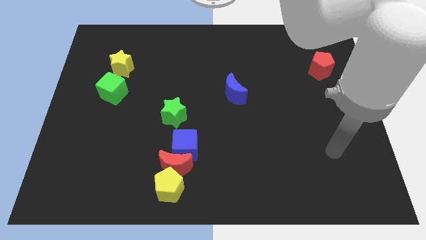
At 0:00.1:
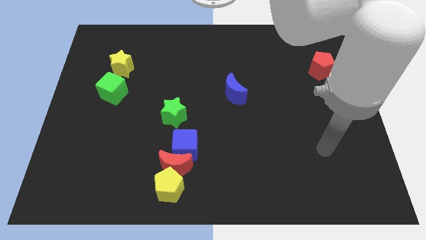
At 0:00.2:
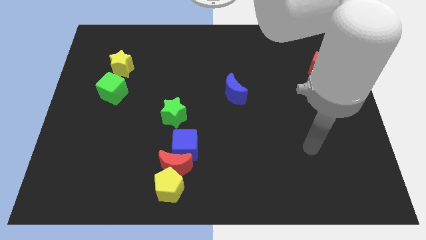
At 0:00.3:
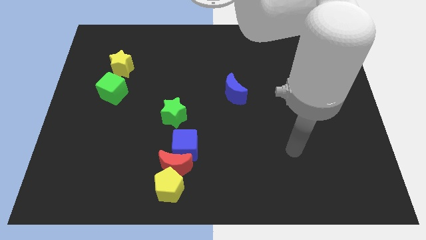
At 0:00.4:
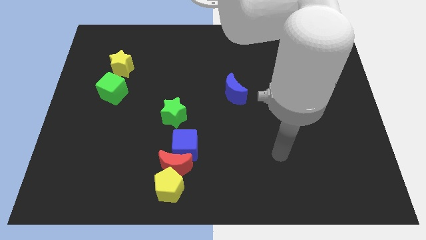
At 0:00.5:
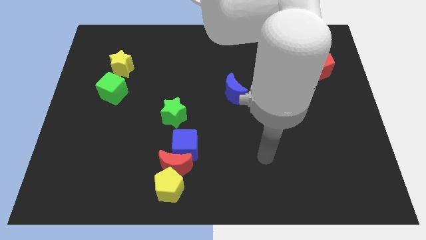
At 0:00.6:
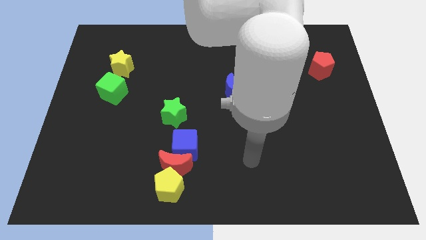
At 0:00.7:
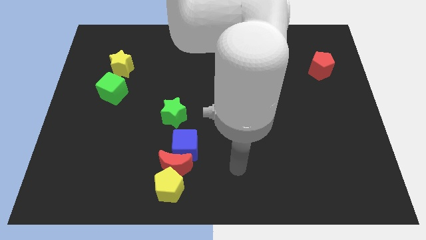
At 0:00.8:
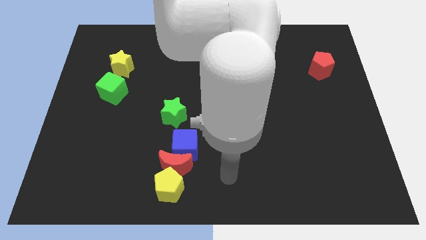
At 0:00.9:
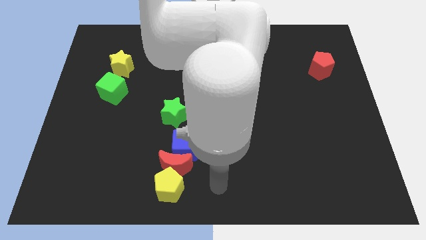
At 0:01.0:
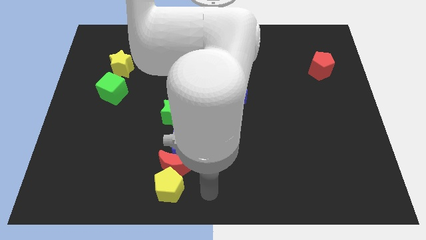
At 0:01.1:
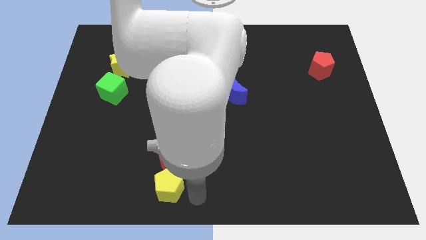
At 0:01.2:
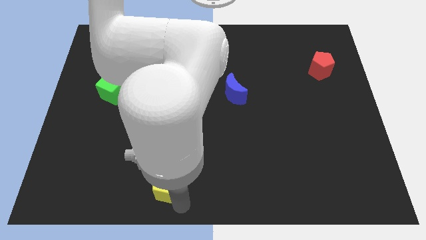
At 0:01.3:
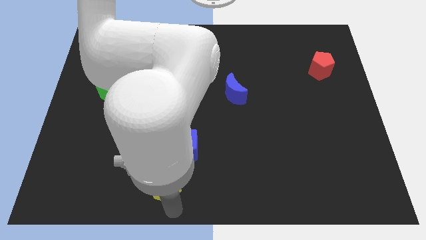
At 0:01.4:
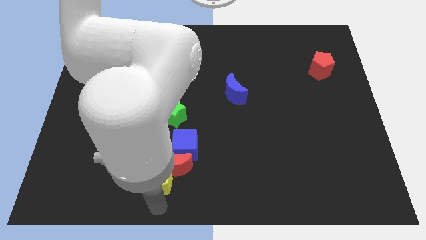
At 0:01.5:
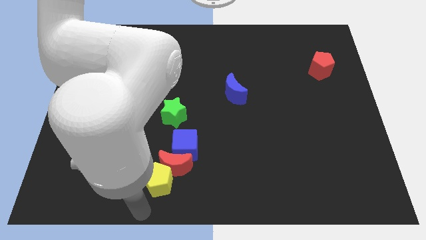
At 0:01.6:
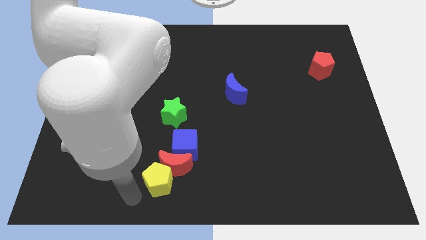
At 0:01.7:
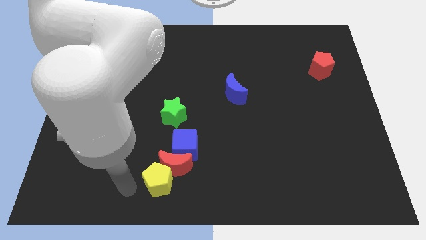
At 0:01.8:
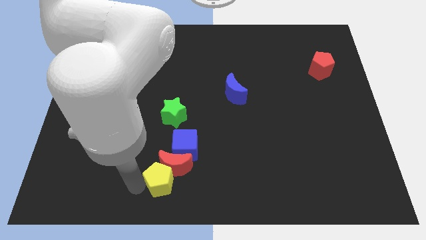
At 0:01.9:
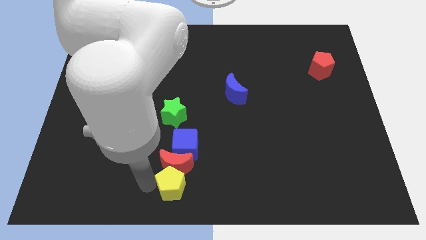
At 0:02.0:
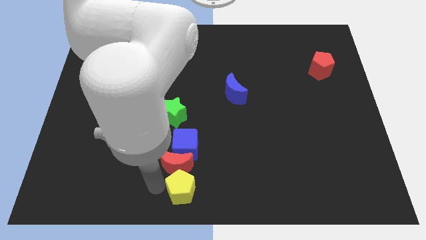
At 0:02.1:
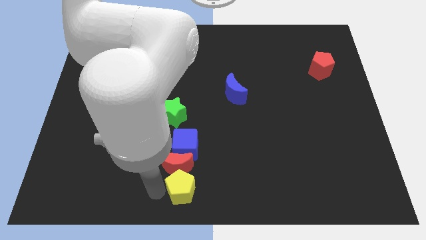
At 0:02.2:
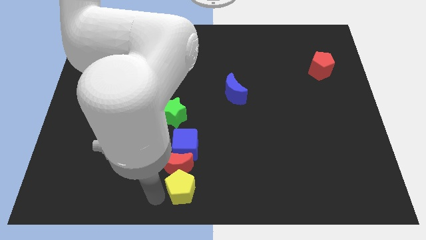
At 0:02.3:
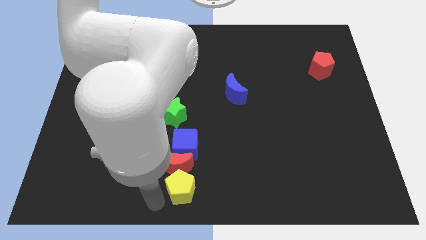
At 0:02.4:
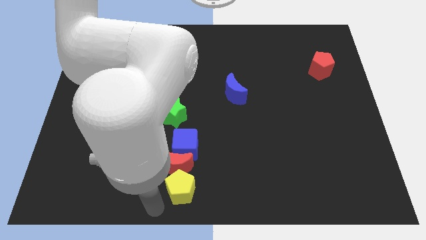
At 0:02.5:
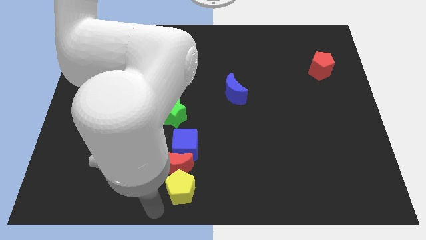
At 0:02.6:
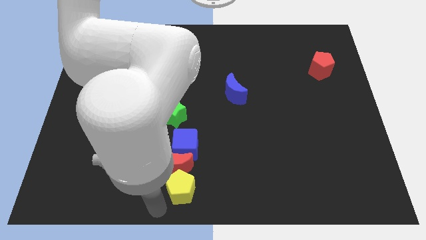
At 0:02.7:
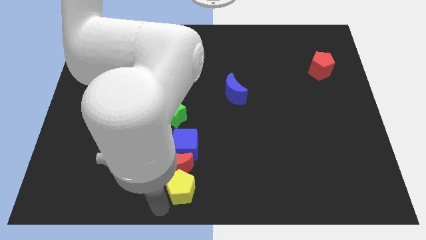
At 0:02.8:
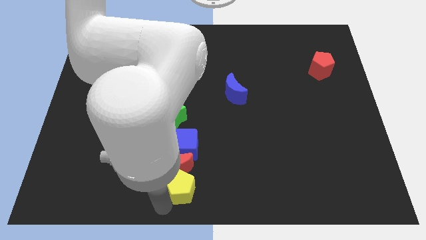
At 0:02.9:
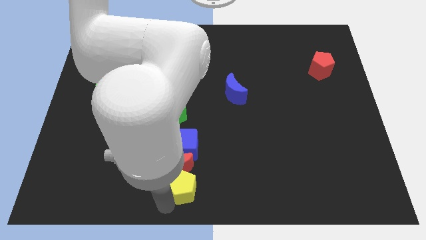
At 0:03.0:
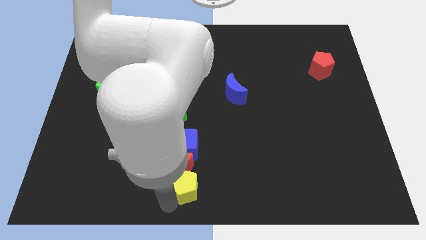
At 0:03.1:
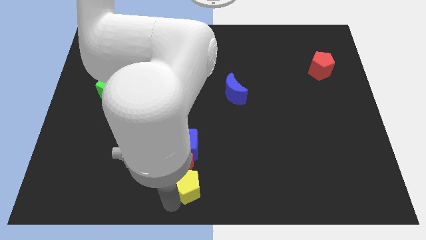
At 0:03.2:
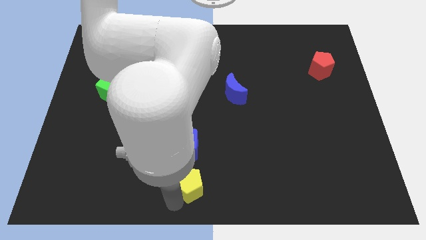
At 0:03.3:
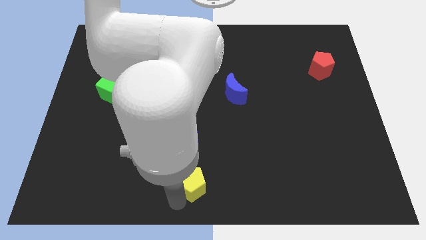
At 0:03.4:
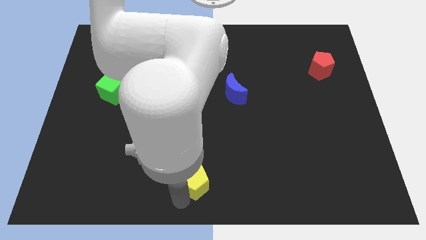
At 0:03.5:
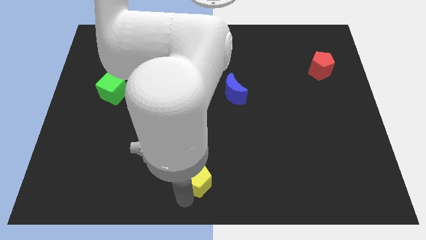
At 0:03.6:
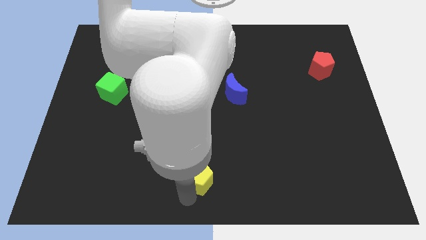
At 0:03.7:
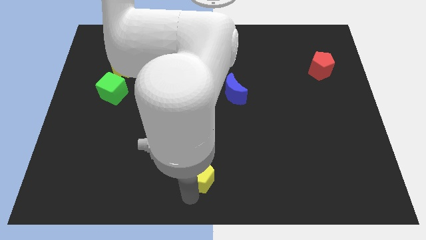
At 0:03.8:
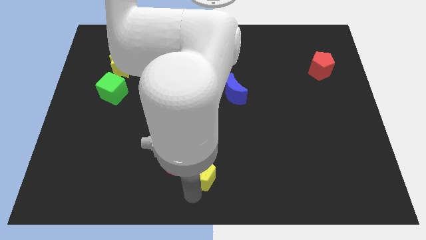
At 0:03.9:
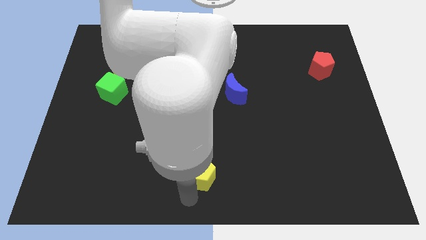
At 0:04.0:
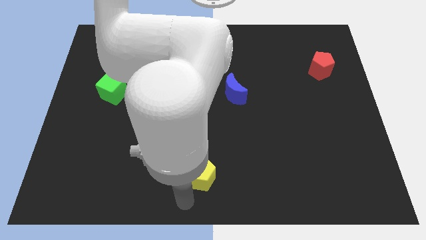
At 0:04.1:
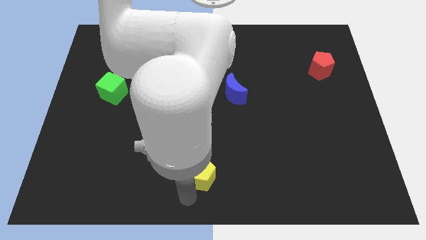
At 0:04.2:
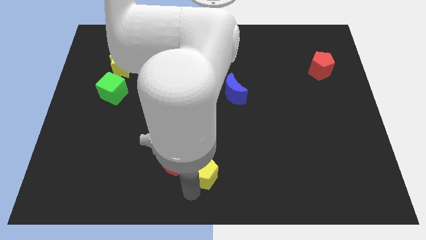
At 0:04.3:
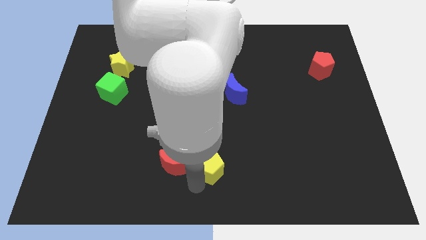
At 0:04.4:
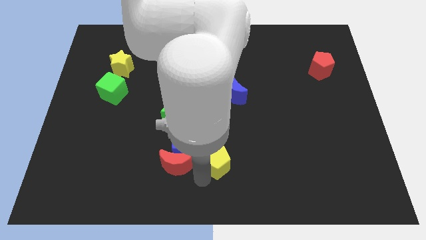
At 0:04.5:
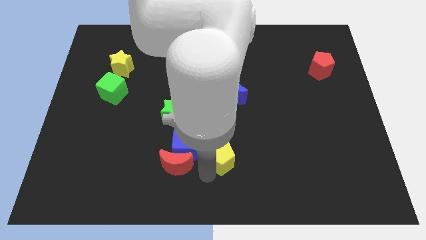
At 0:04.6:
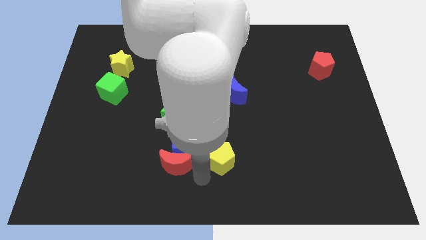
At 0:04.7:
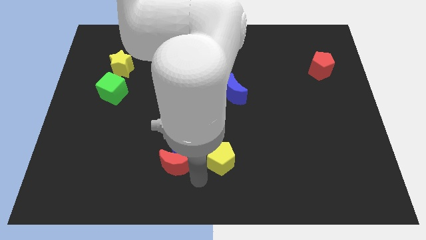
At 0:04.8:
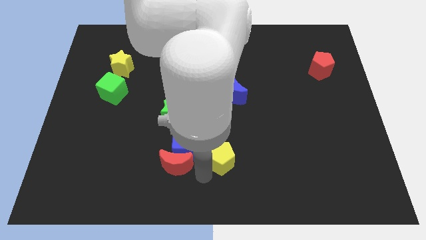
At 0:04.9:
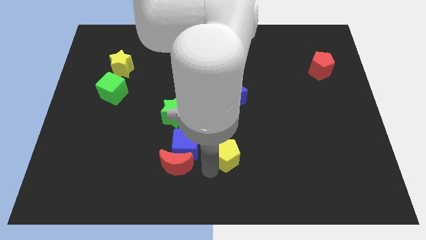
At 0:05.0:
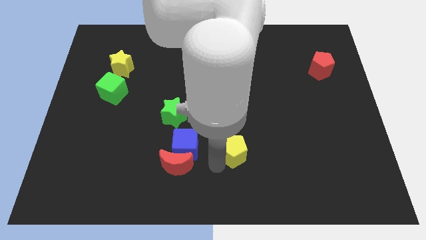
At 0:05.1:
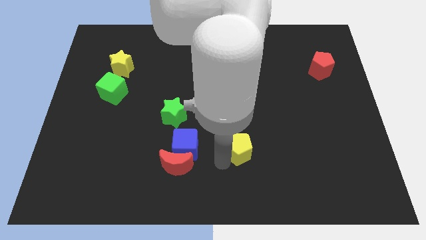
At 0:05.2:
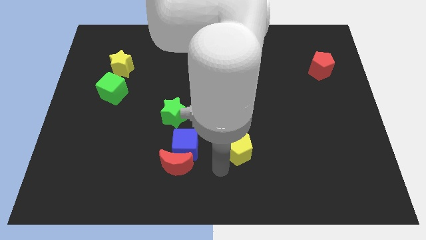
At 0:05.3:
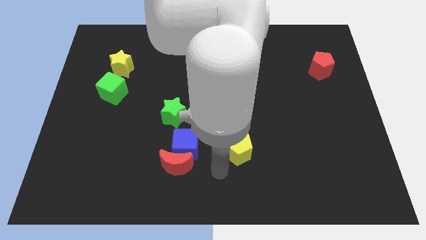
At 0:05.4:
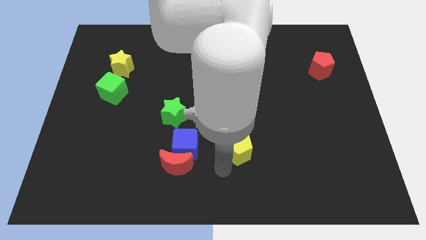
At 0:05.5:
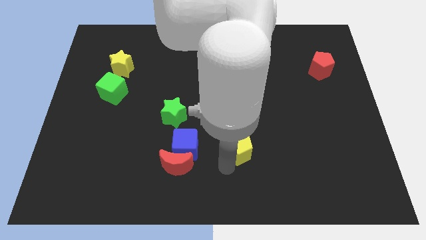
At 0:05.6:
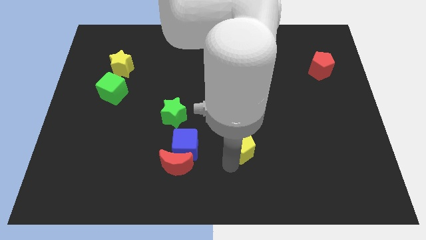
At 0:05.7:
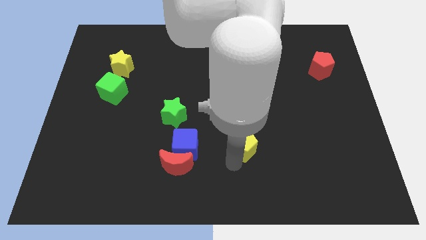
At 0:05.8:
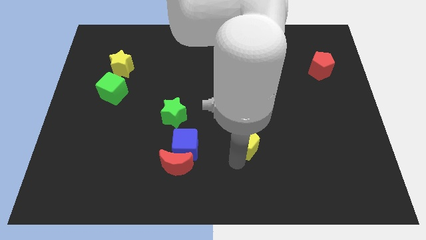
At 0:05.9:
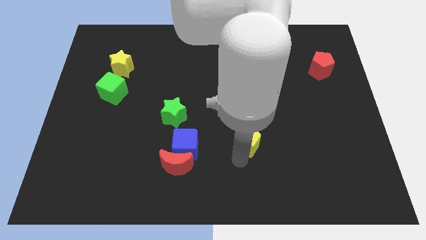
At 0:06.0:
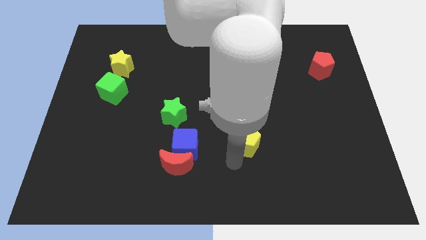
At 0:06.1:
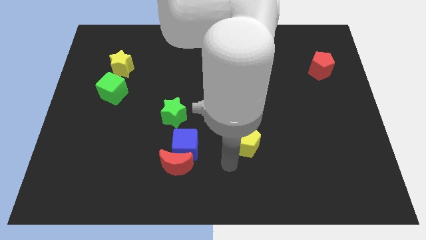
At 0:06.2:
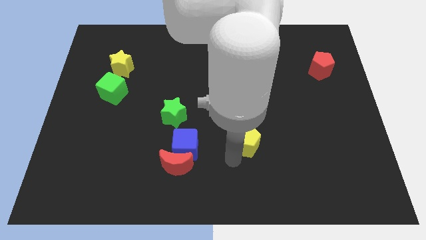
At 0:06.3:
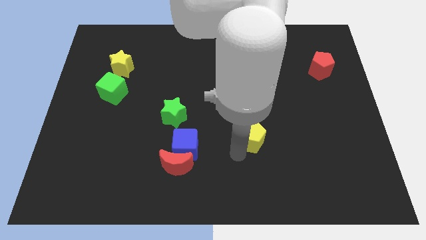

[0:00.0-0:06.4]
move the yellow pentagon diagonally upwards and to the right

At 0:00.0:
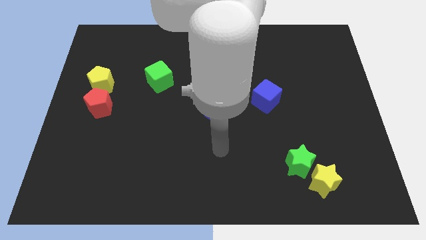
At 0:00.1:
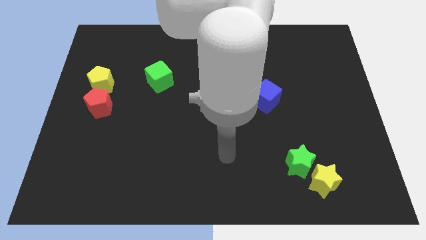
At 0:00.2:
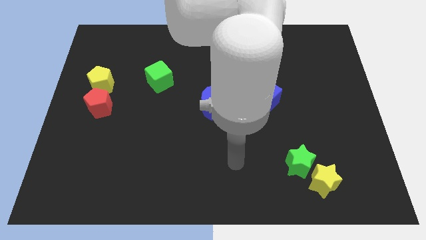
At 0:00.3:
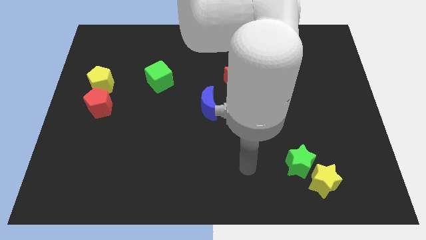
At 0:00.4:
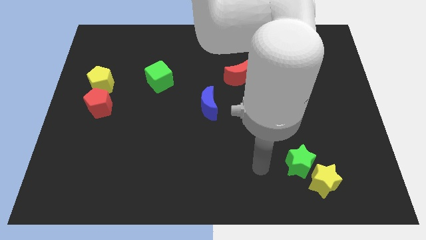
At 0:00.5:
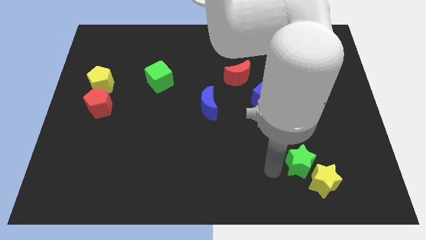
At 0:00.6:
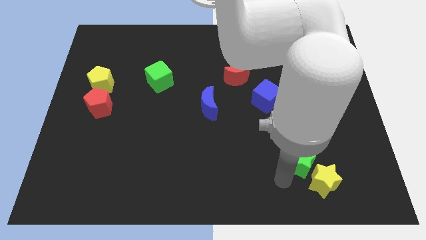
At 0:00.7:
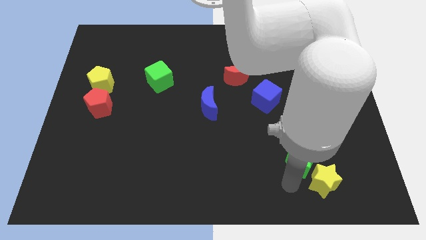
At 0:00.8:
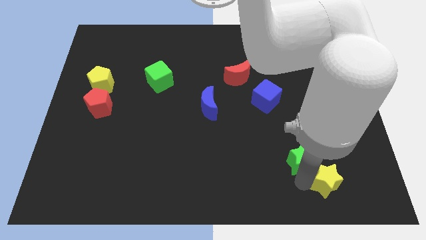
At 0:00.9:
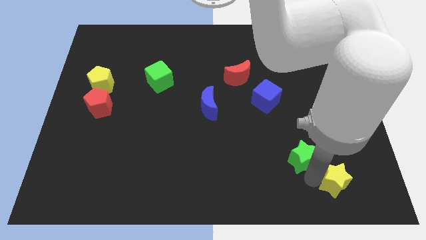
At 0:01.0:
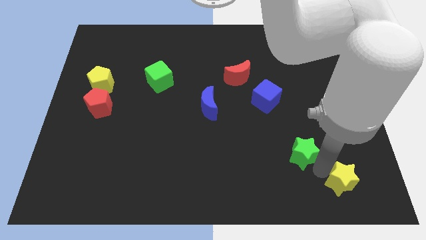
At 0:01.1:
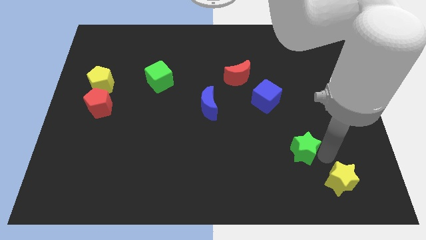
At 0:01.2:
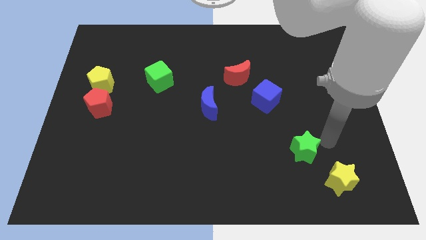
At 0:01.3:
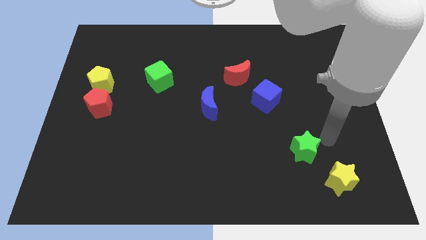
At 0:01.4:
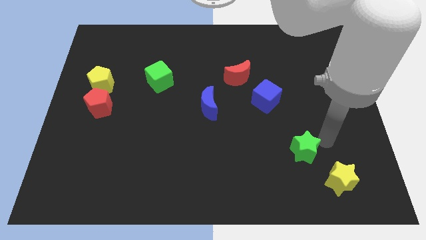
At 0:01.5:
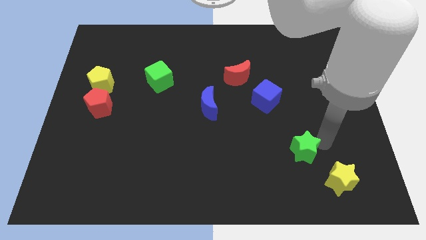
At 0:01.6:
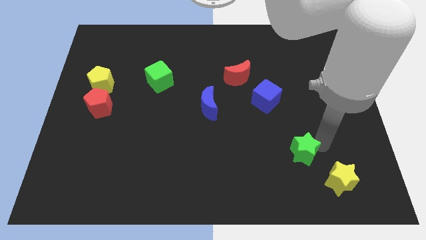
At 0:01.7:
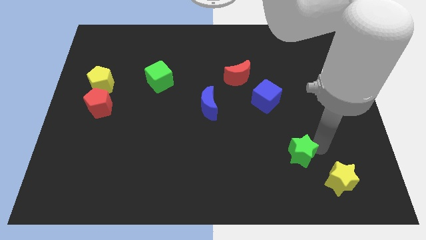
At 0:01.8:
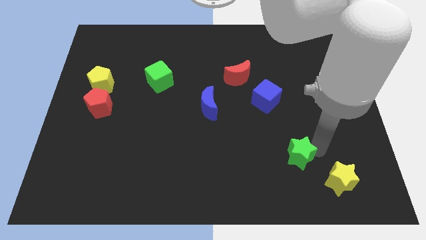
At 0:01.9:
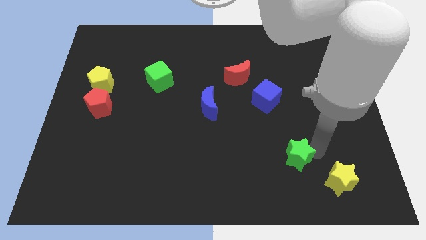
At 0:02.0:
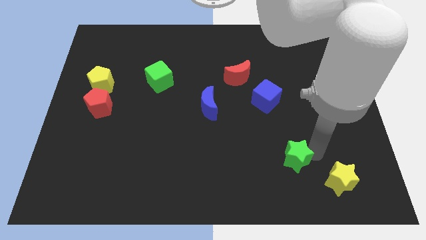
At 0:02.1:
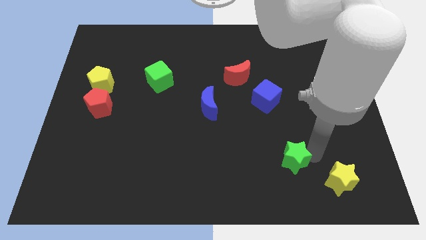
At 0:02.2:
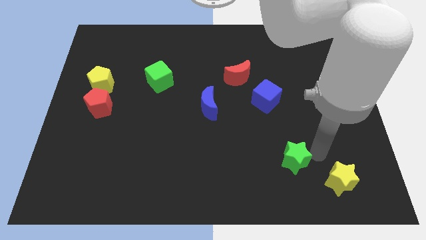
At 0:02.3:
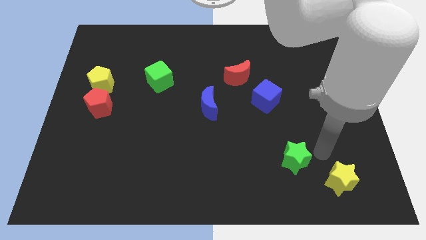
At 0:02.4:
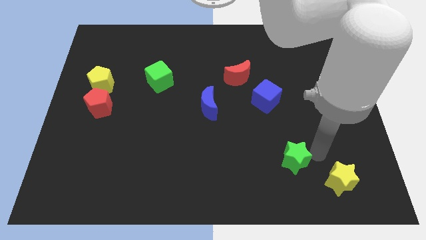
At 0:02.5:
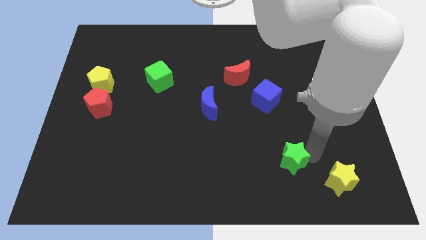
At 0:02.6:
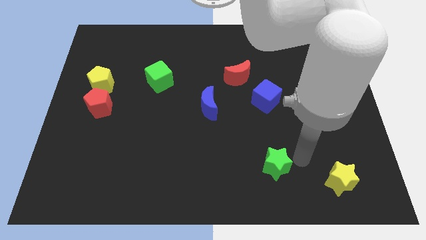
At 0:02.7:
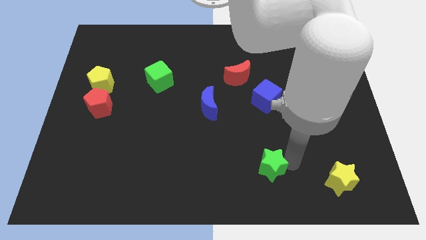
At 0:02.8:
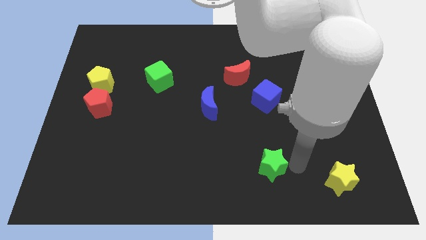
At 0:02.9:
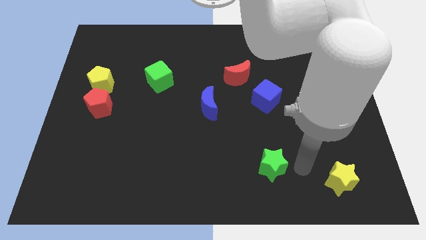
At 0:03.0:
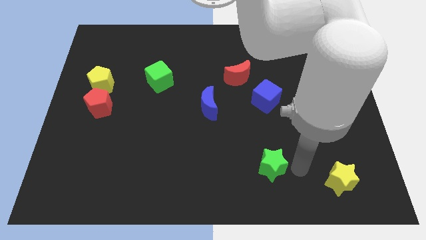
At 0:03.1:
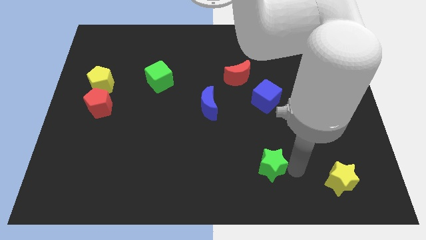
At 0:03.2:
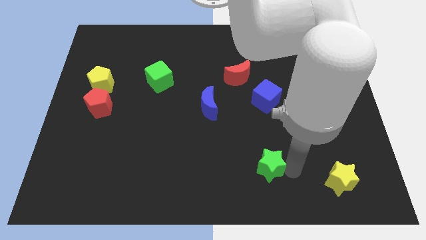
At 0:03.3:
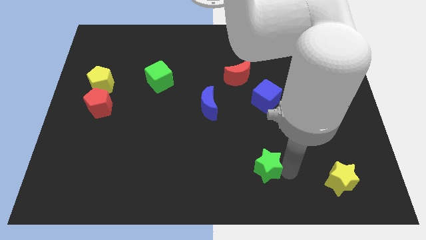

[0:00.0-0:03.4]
push the green star a bit to the left
